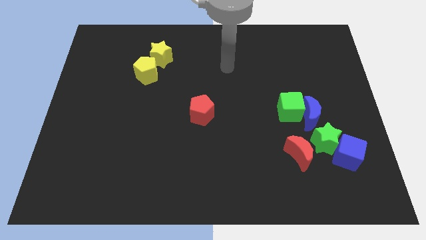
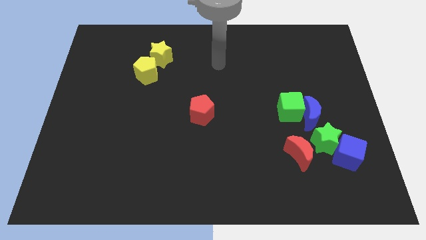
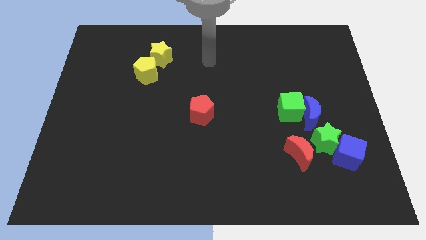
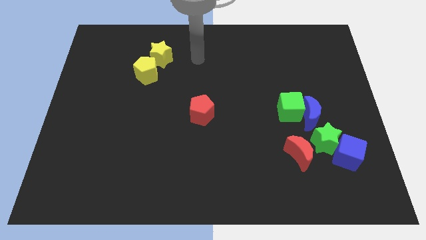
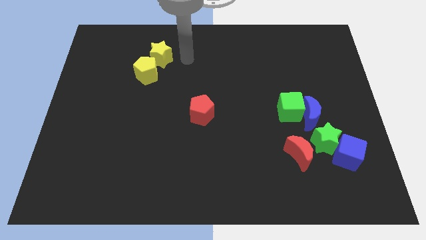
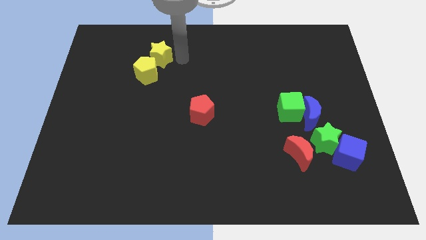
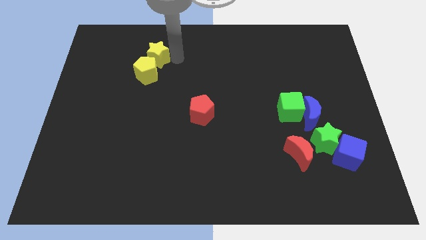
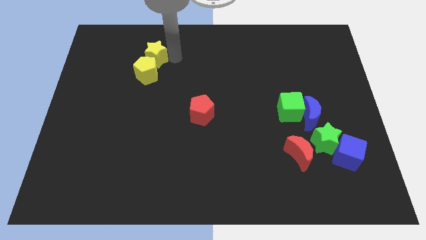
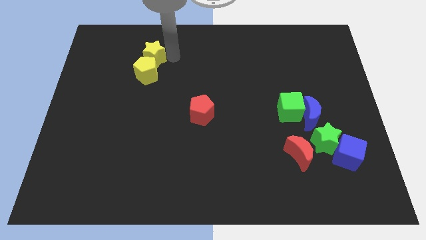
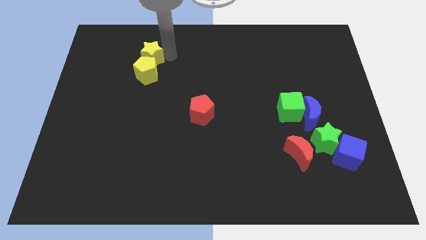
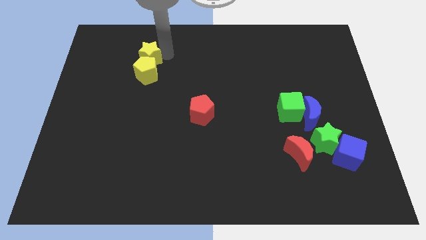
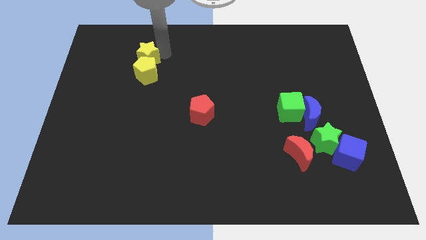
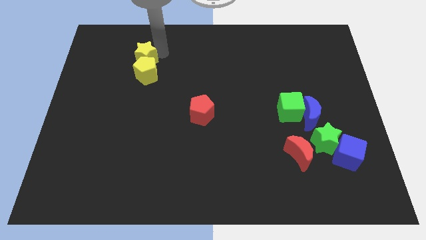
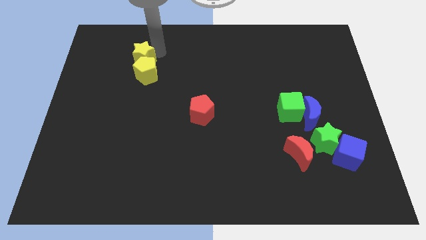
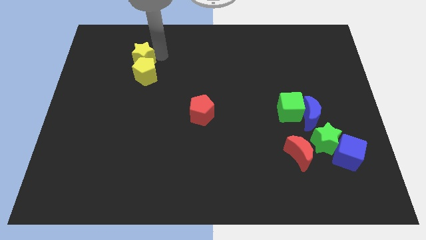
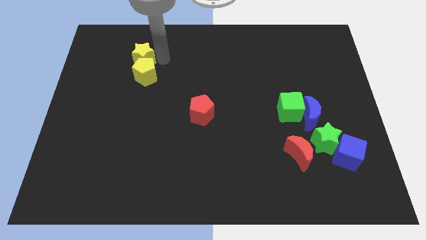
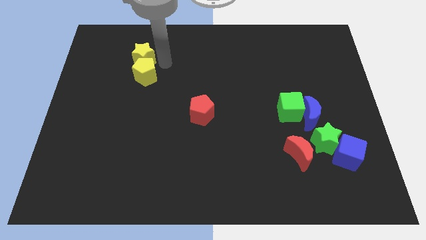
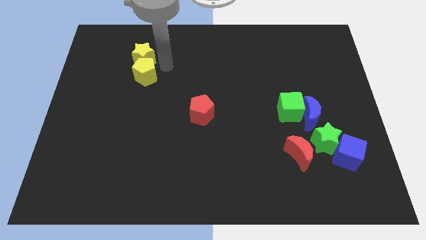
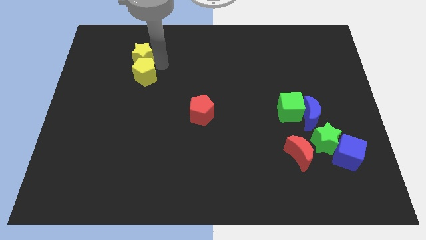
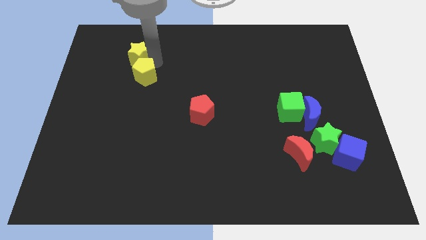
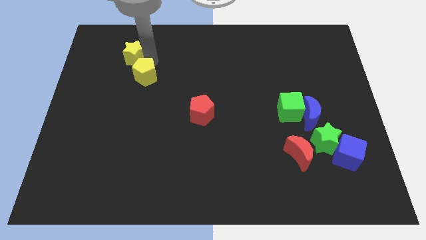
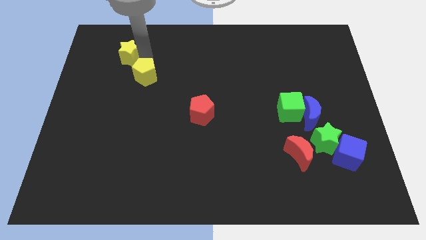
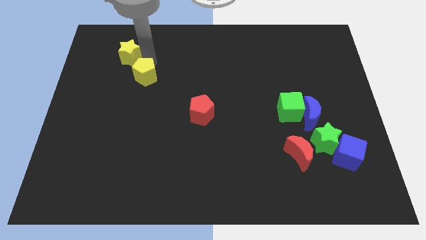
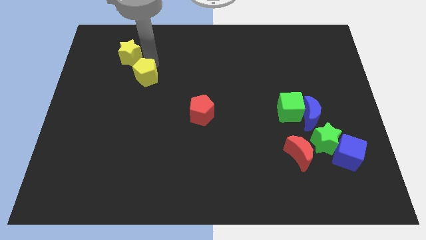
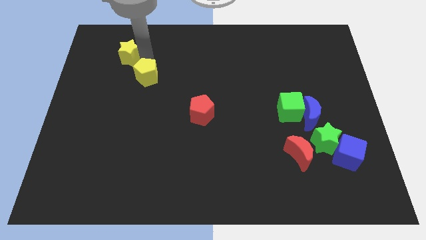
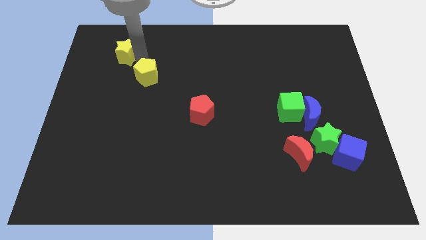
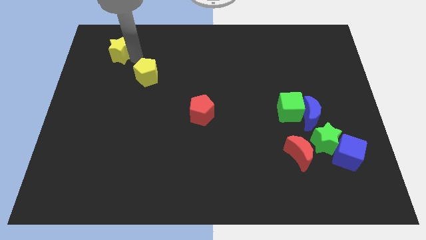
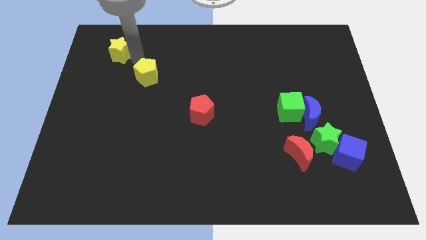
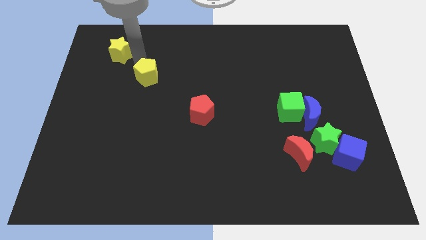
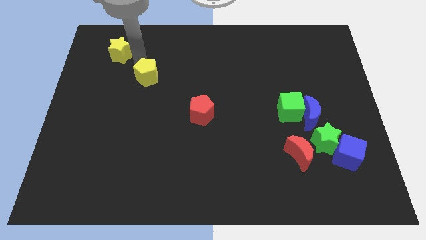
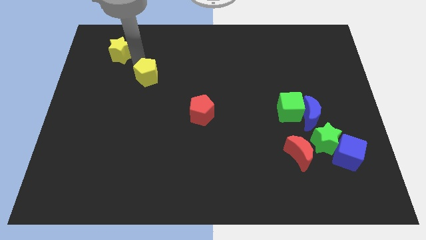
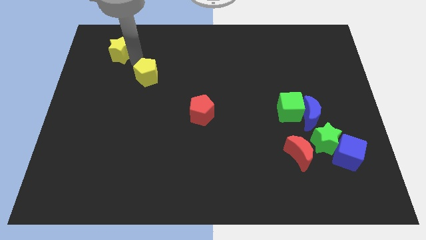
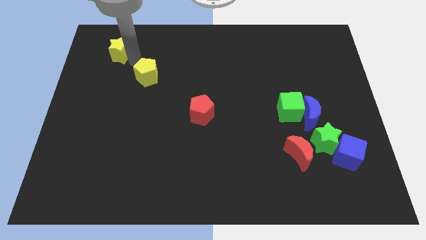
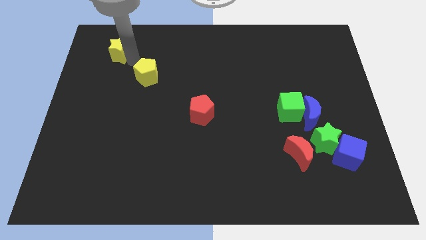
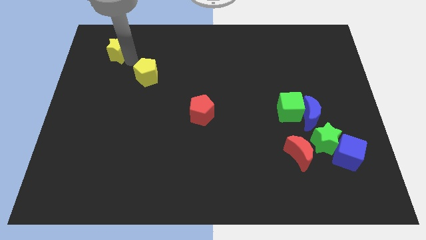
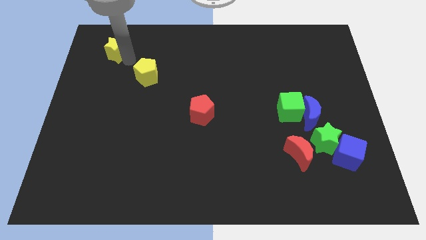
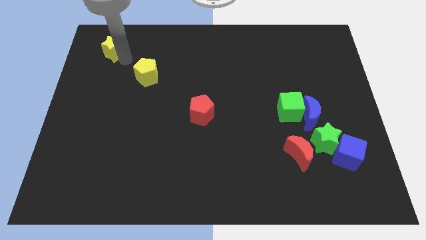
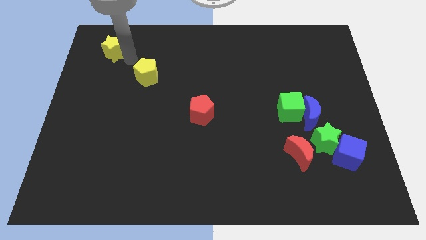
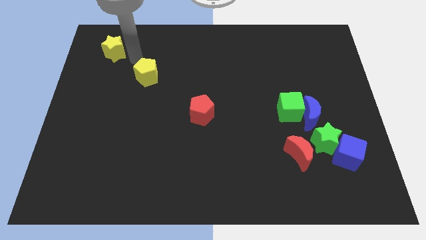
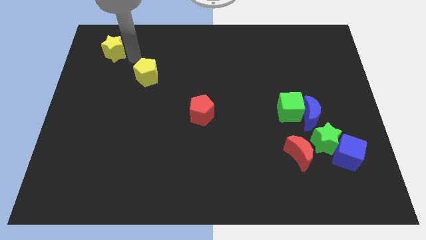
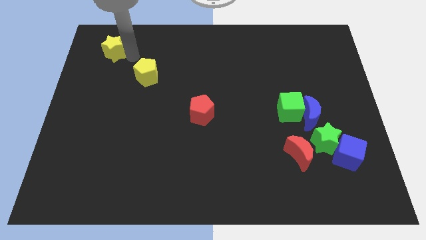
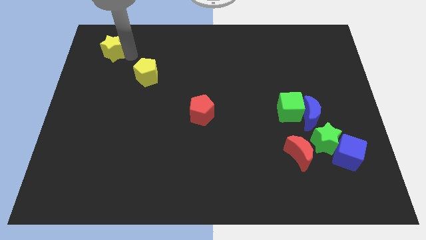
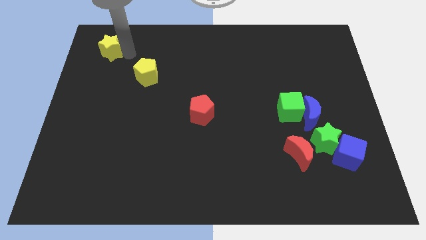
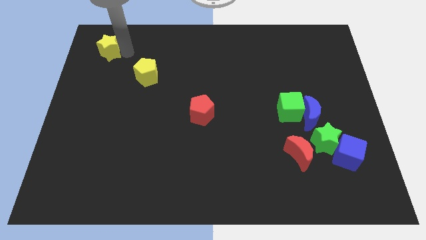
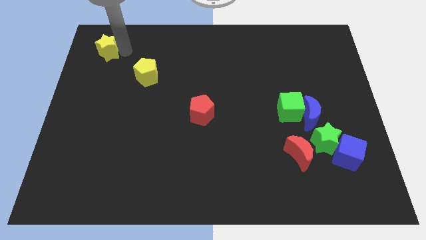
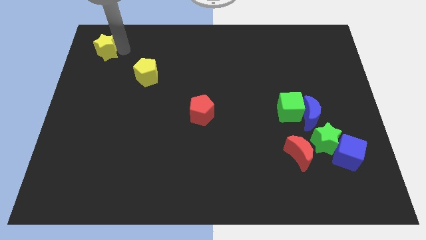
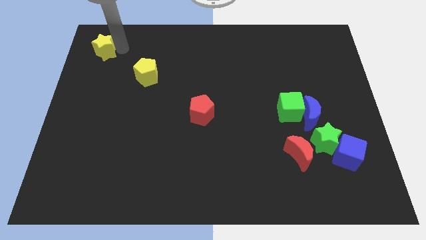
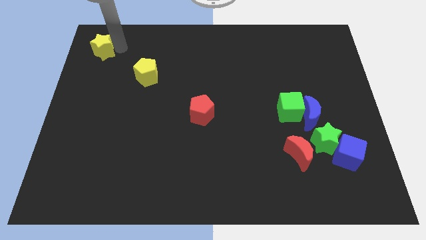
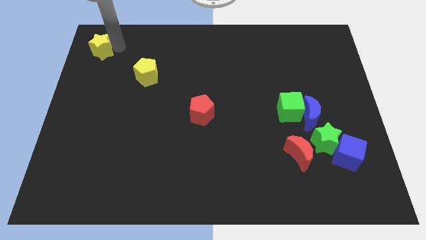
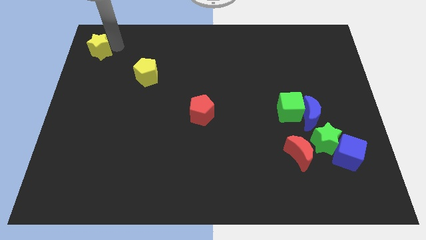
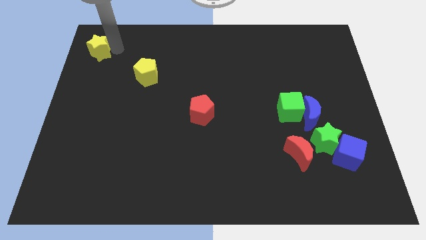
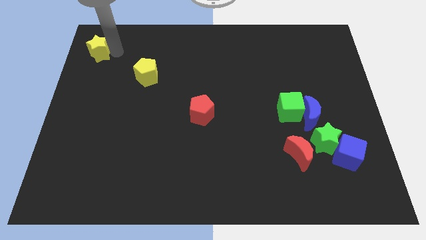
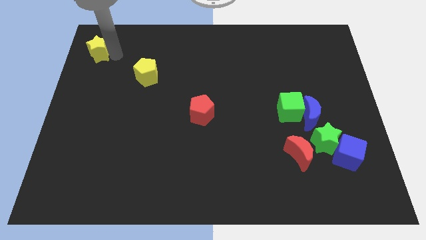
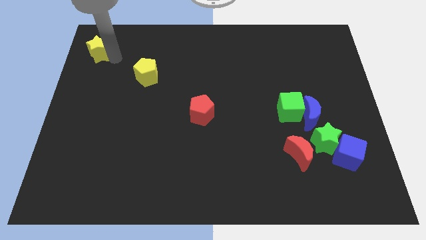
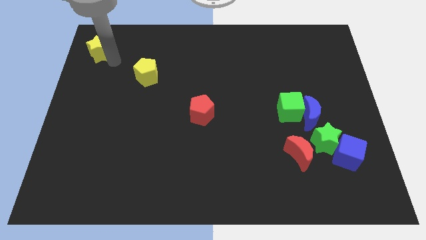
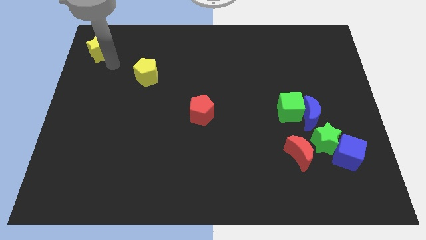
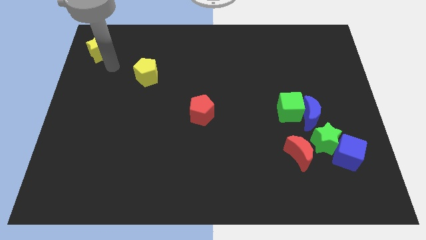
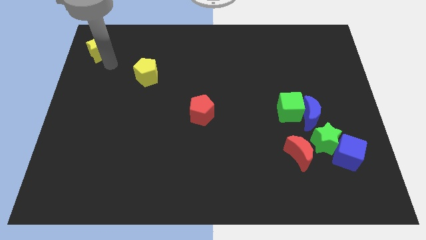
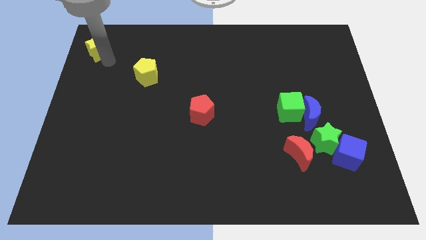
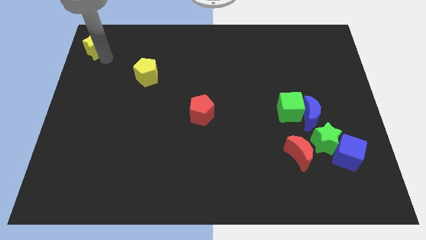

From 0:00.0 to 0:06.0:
put the yellow star to the top left corner
